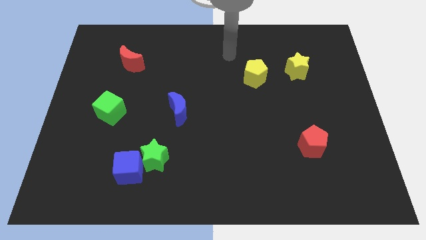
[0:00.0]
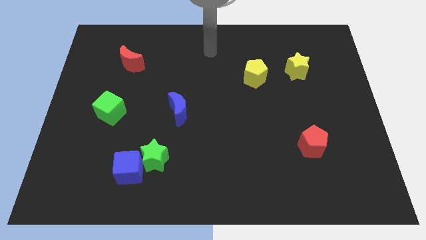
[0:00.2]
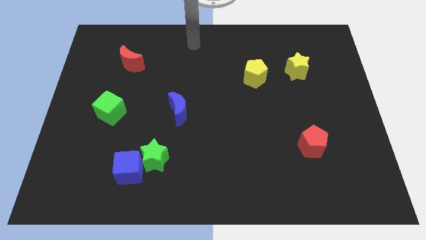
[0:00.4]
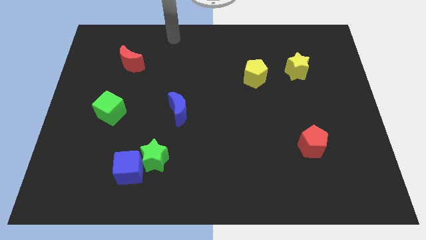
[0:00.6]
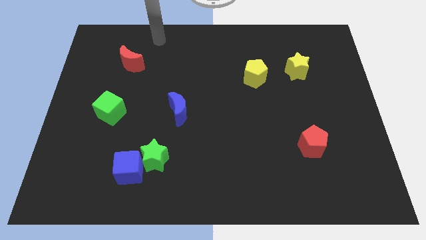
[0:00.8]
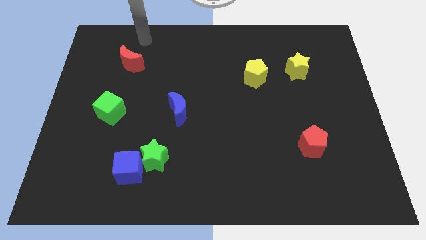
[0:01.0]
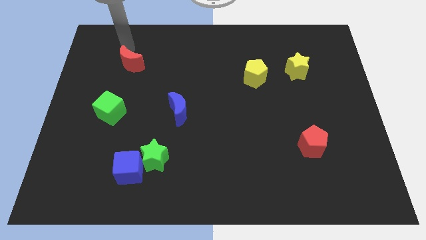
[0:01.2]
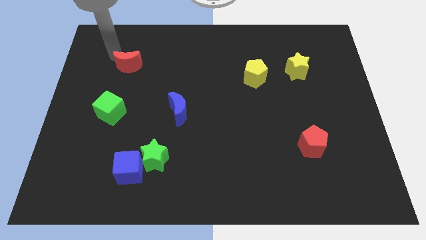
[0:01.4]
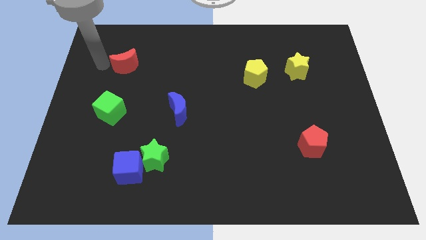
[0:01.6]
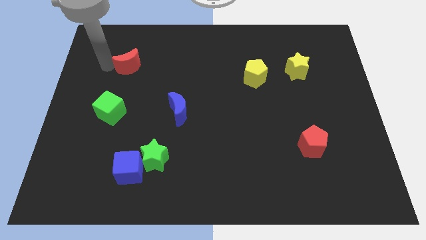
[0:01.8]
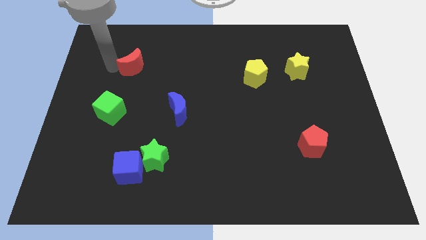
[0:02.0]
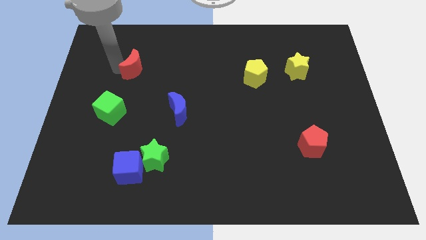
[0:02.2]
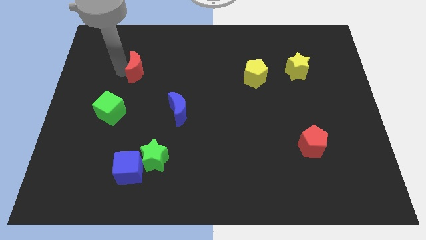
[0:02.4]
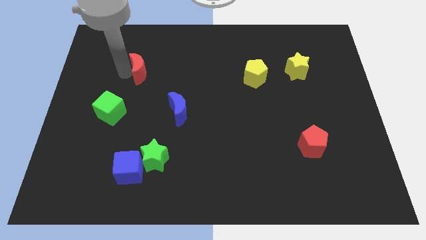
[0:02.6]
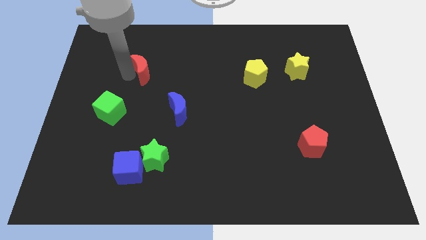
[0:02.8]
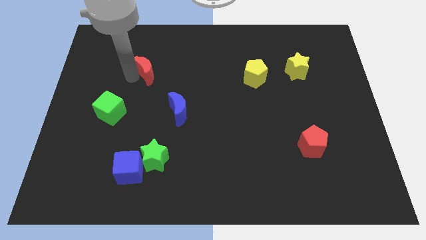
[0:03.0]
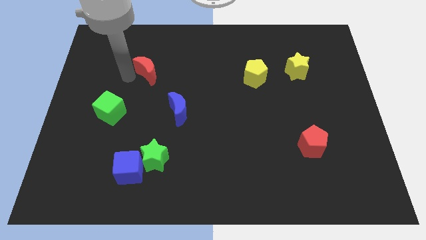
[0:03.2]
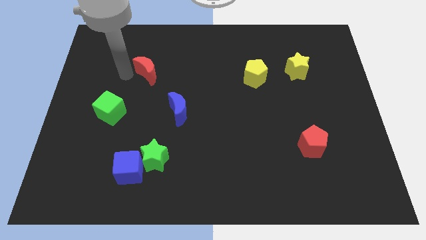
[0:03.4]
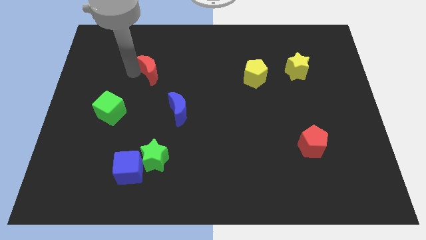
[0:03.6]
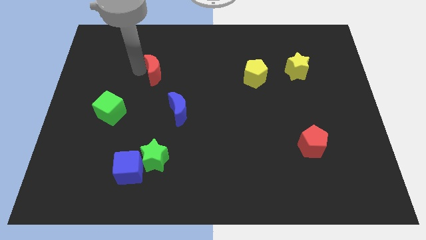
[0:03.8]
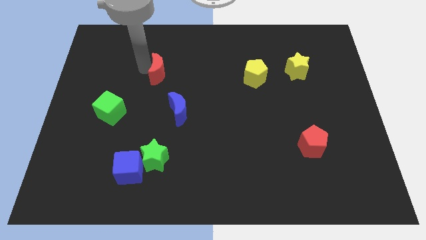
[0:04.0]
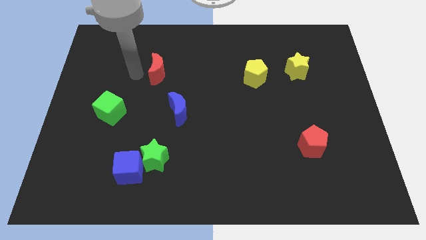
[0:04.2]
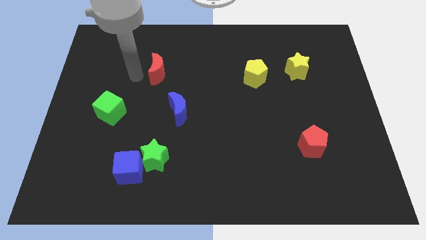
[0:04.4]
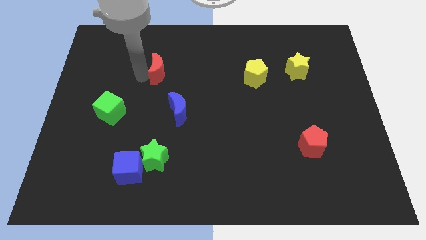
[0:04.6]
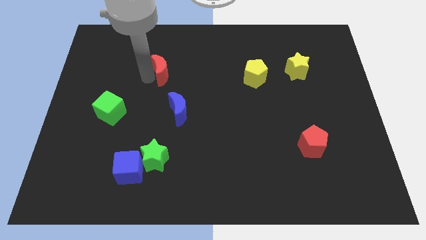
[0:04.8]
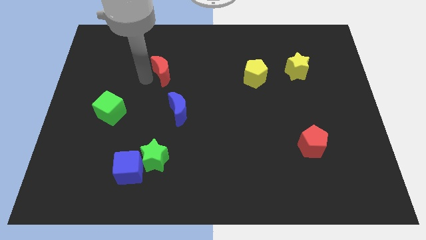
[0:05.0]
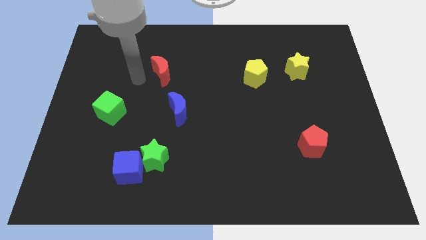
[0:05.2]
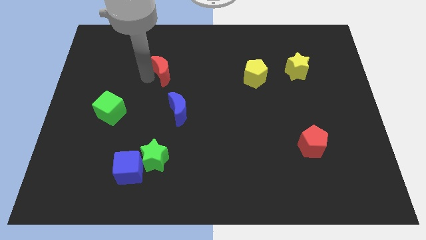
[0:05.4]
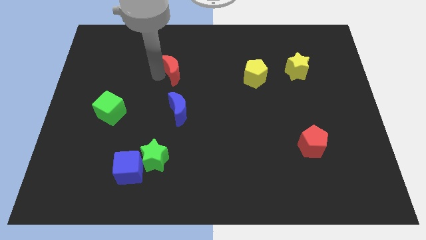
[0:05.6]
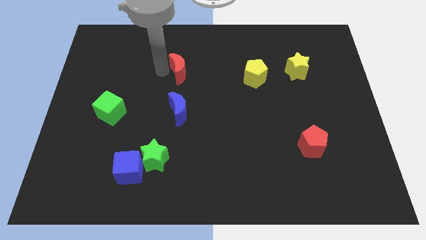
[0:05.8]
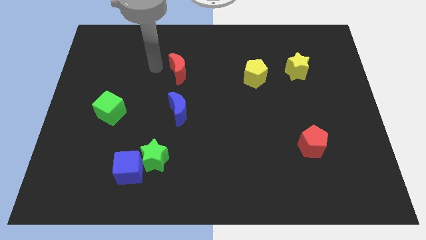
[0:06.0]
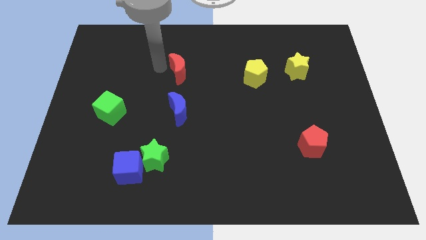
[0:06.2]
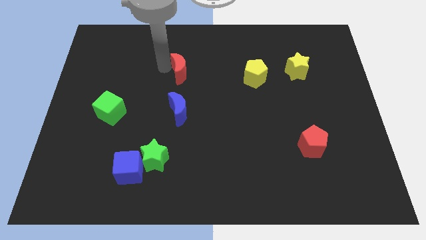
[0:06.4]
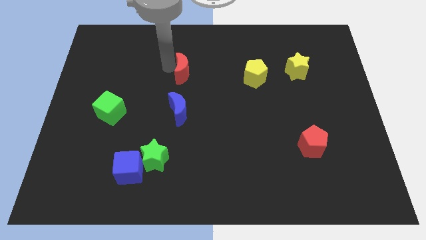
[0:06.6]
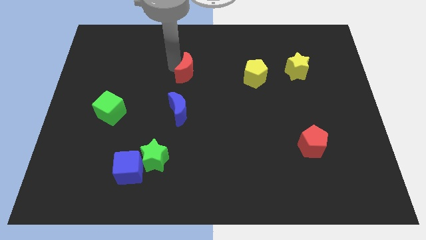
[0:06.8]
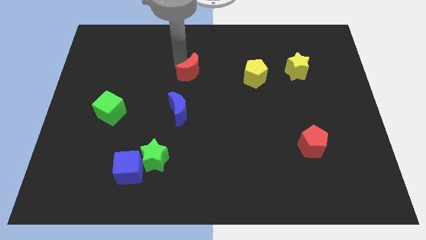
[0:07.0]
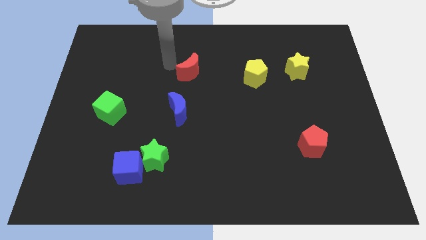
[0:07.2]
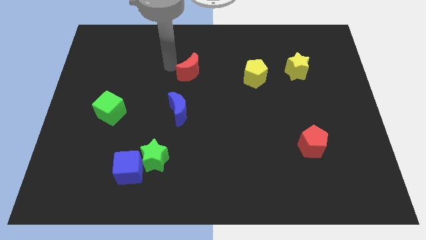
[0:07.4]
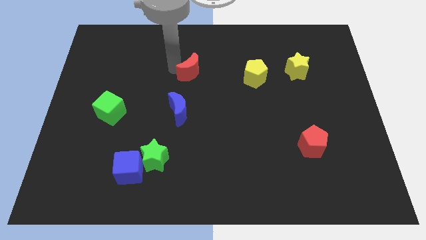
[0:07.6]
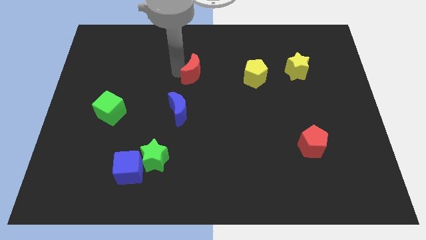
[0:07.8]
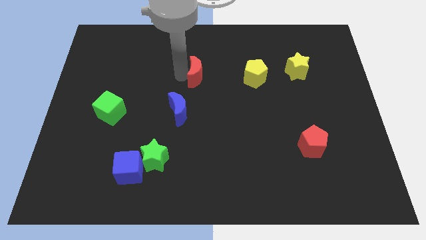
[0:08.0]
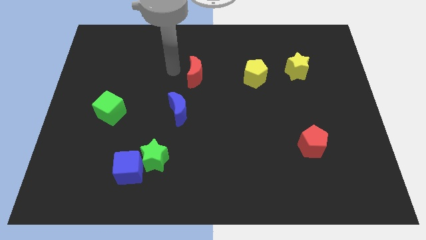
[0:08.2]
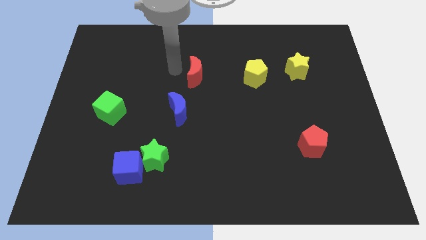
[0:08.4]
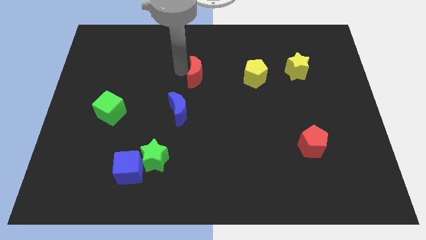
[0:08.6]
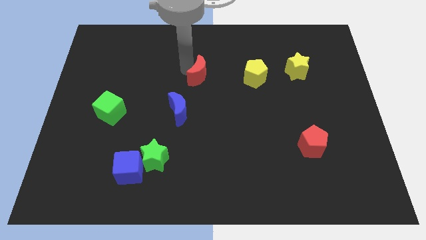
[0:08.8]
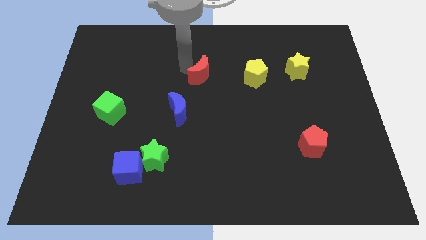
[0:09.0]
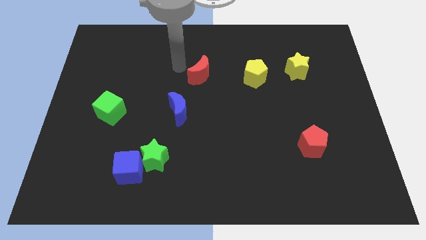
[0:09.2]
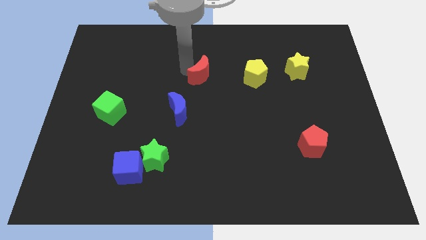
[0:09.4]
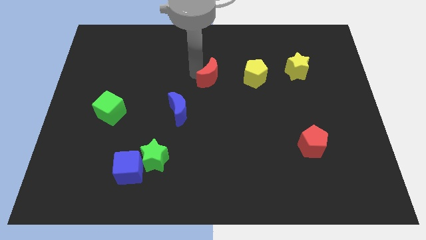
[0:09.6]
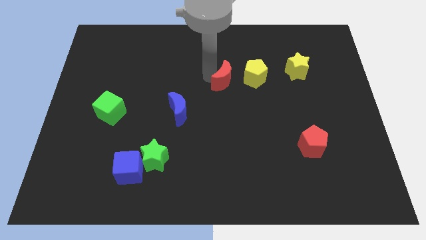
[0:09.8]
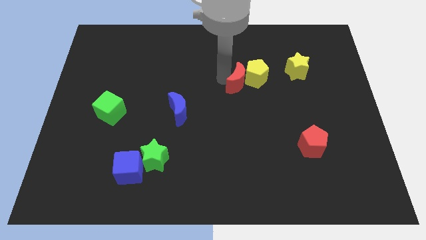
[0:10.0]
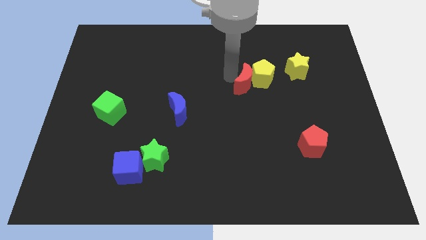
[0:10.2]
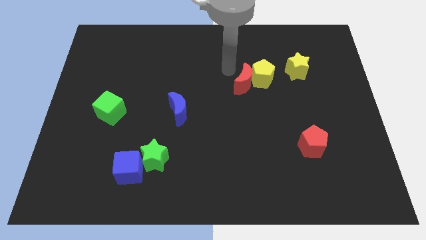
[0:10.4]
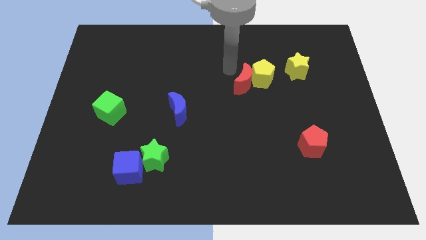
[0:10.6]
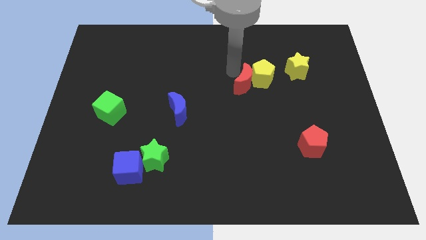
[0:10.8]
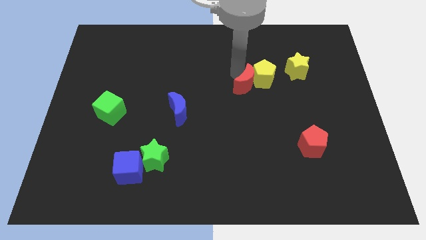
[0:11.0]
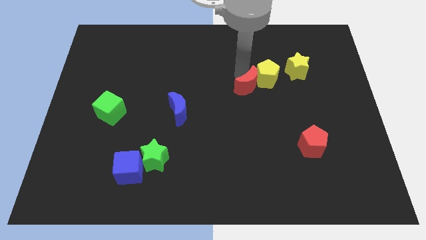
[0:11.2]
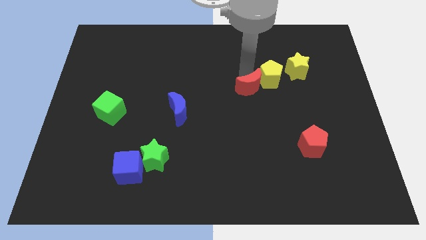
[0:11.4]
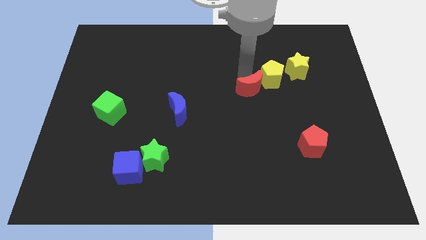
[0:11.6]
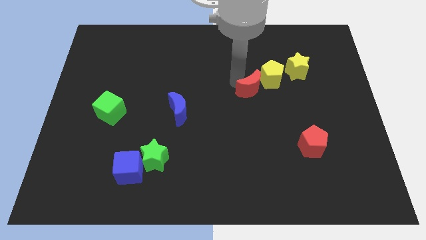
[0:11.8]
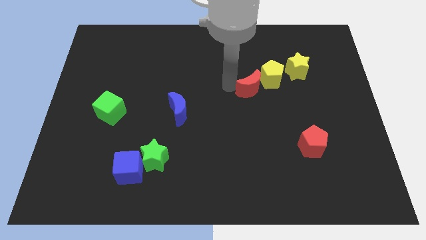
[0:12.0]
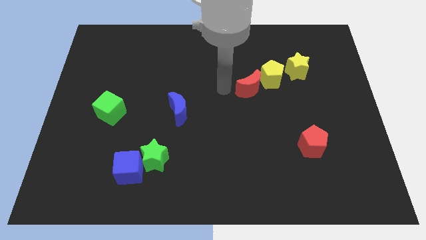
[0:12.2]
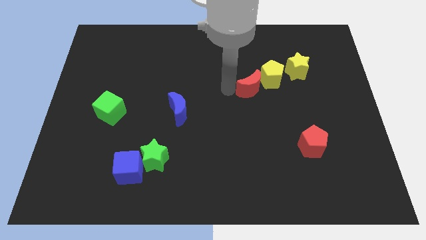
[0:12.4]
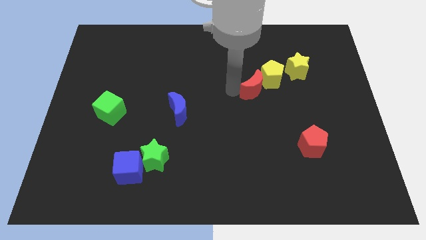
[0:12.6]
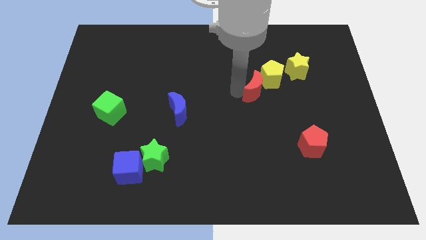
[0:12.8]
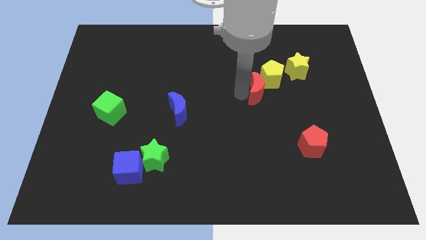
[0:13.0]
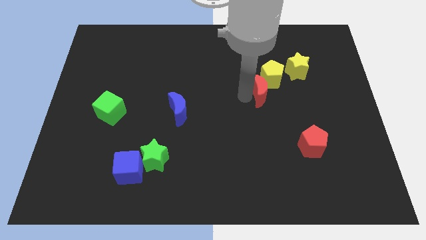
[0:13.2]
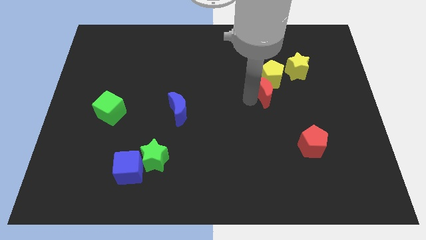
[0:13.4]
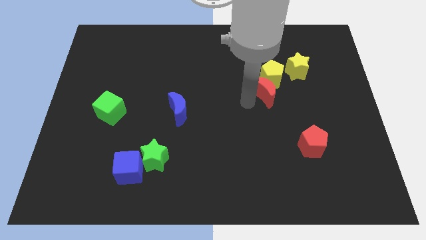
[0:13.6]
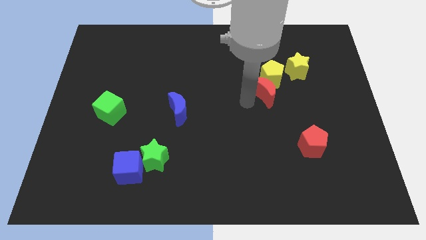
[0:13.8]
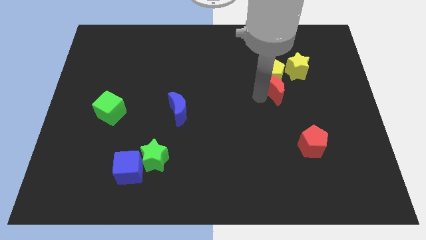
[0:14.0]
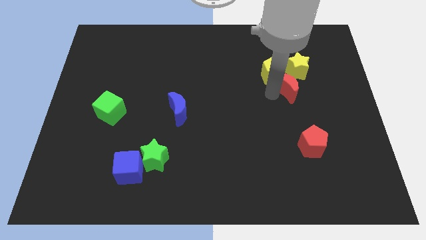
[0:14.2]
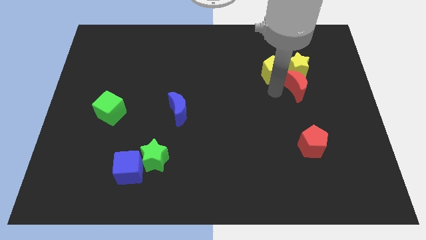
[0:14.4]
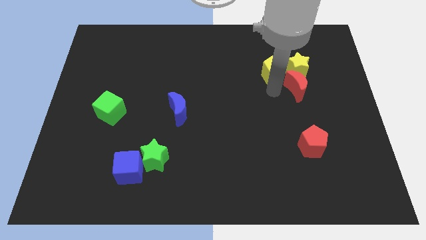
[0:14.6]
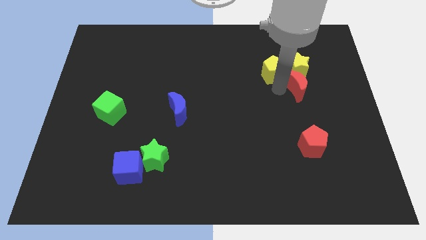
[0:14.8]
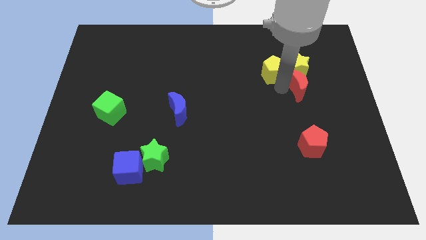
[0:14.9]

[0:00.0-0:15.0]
put the red moon to the bottom right of the yellow star
